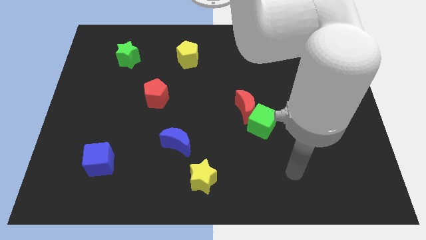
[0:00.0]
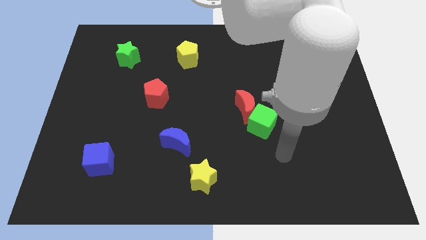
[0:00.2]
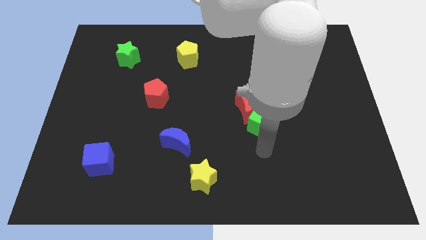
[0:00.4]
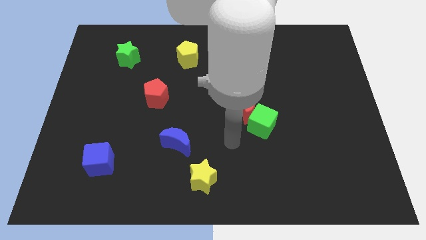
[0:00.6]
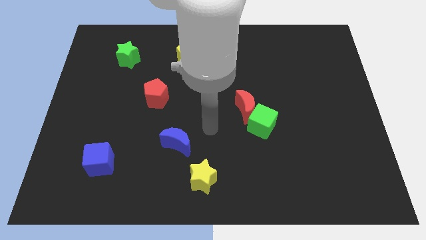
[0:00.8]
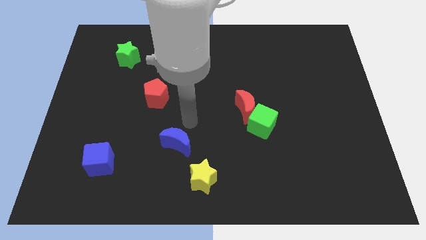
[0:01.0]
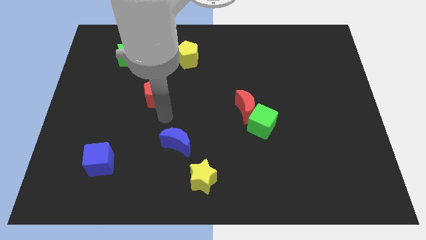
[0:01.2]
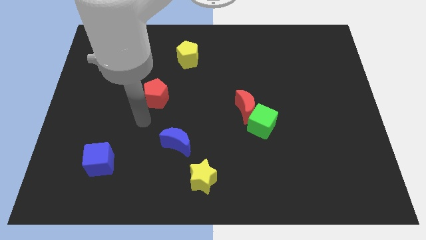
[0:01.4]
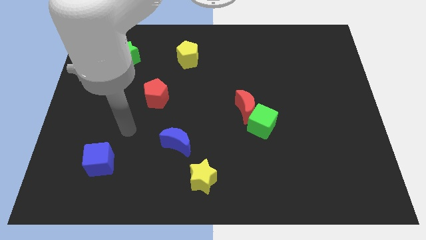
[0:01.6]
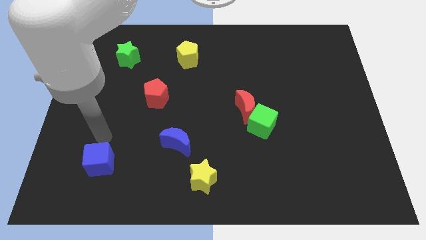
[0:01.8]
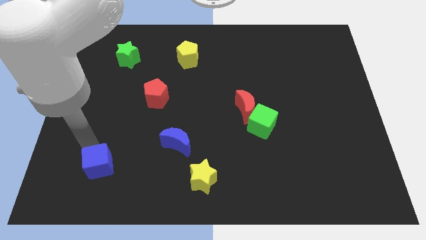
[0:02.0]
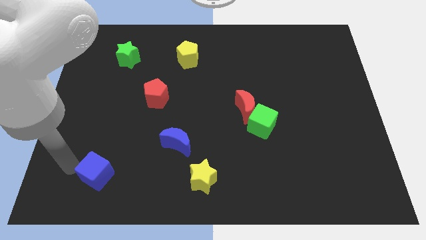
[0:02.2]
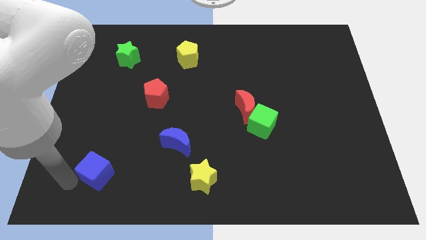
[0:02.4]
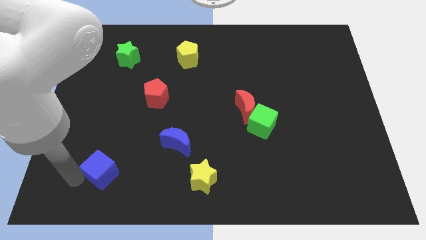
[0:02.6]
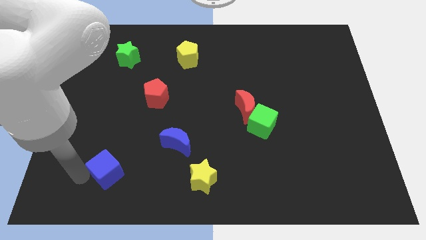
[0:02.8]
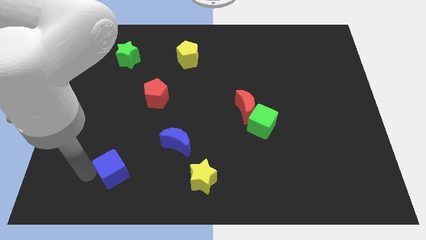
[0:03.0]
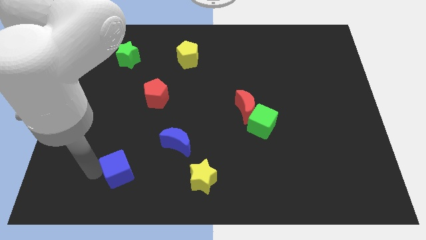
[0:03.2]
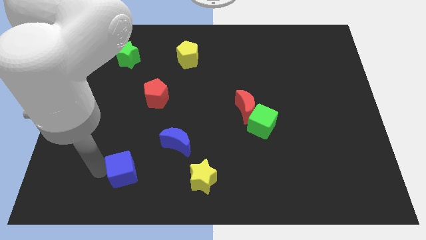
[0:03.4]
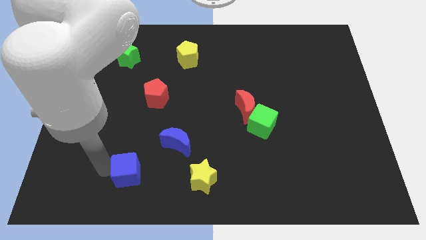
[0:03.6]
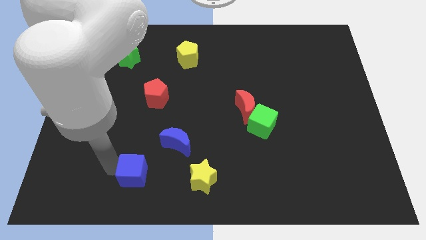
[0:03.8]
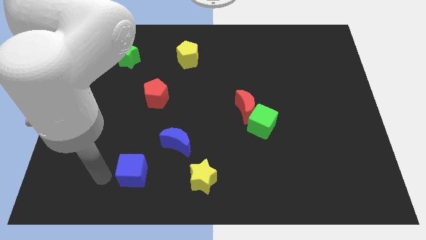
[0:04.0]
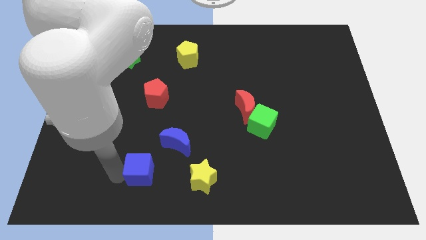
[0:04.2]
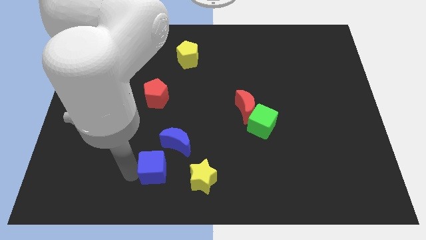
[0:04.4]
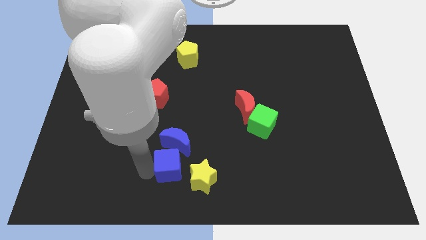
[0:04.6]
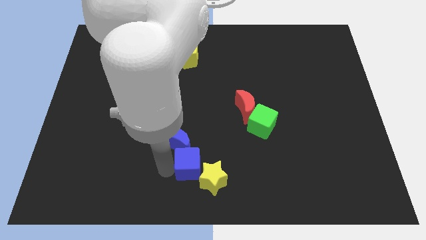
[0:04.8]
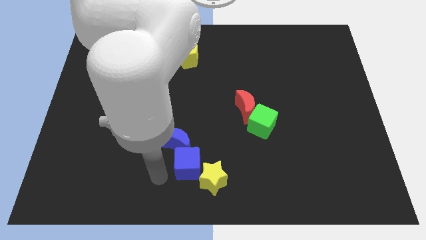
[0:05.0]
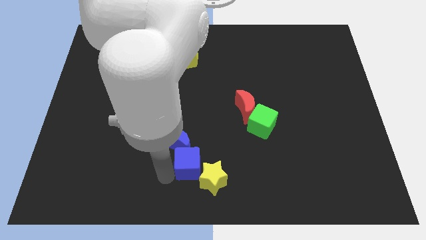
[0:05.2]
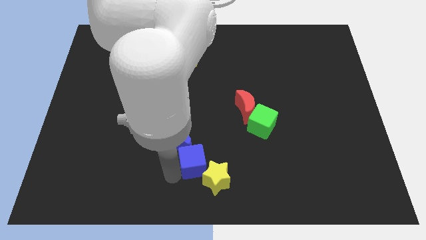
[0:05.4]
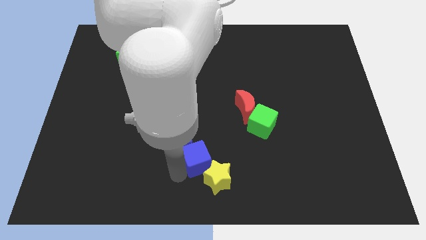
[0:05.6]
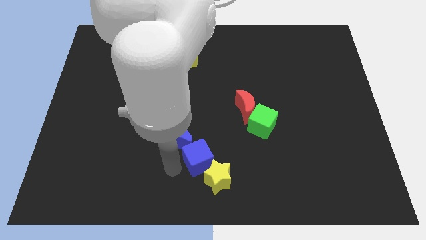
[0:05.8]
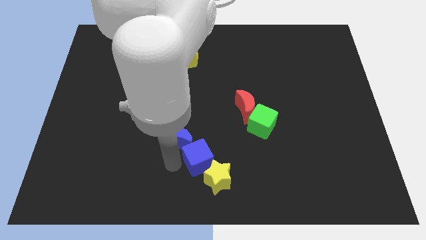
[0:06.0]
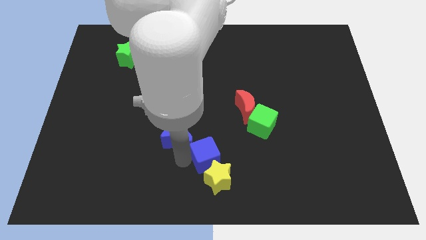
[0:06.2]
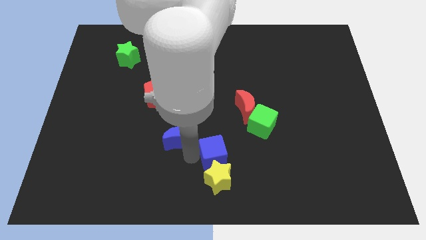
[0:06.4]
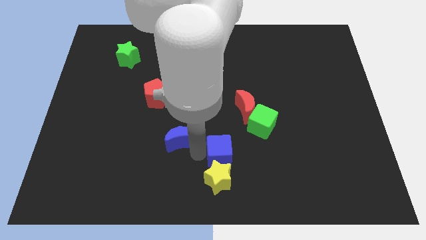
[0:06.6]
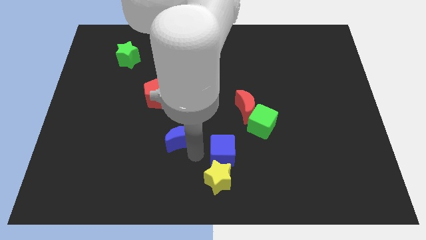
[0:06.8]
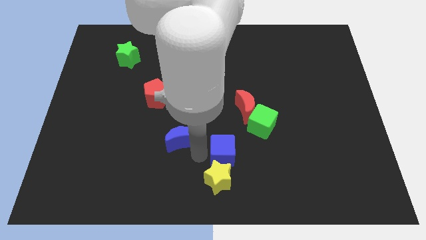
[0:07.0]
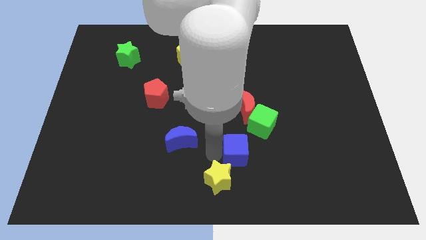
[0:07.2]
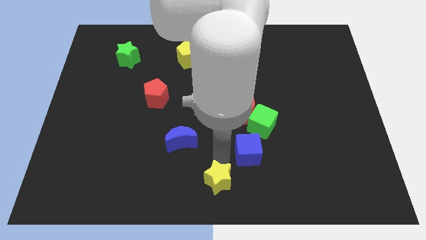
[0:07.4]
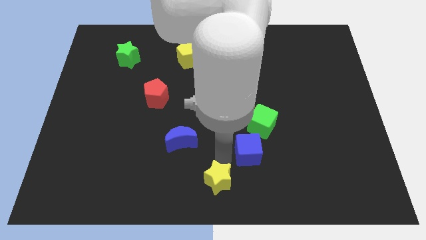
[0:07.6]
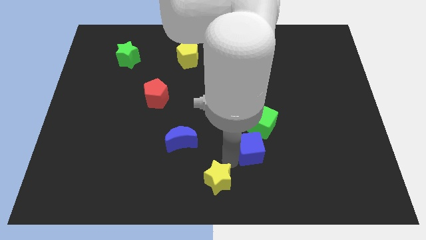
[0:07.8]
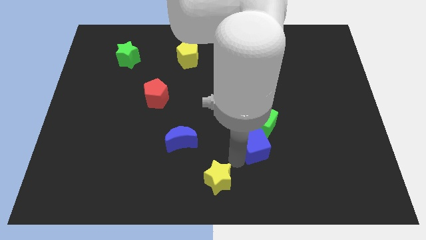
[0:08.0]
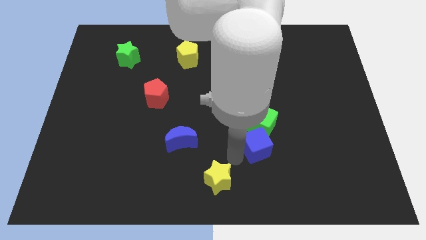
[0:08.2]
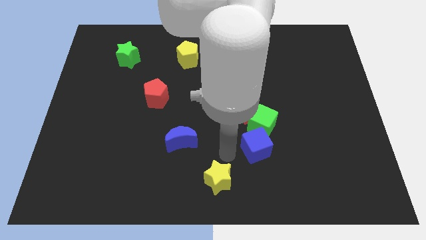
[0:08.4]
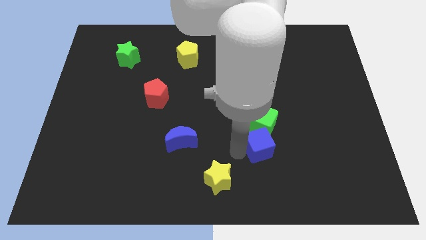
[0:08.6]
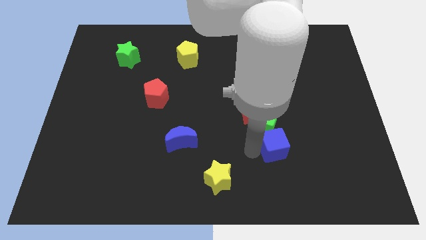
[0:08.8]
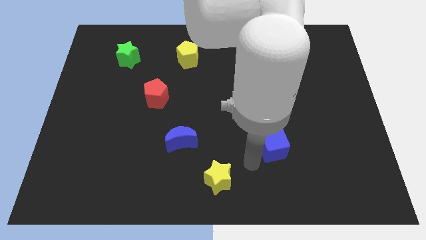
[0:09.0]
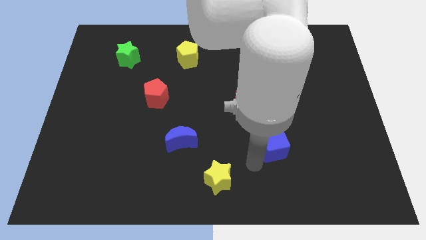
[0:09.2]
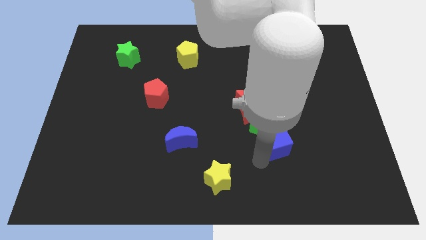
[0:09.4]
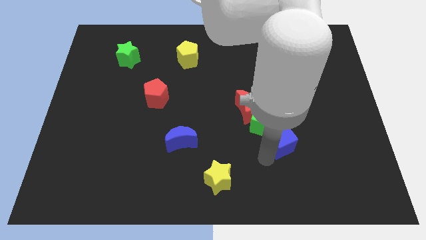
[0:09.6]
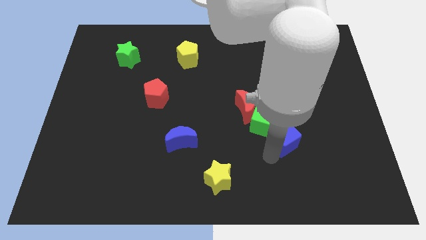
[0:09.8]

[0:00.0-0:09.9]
move the blue cube right of the green cube

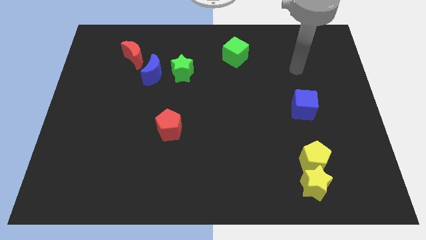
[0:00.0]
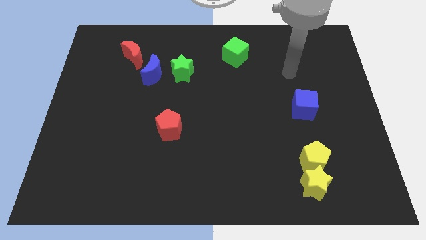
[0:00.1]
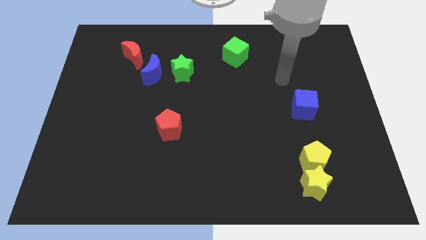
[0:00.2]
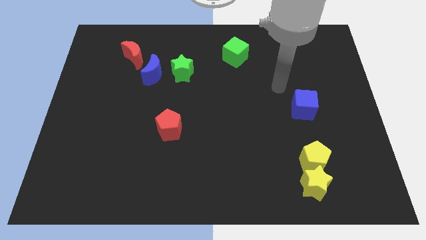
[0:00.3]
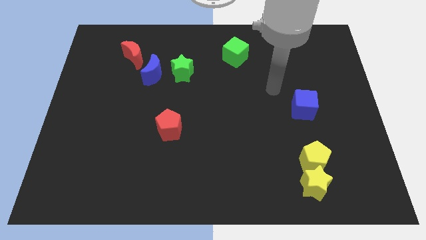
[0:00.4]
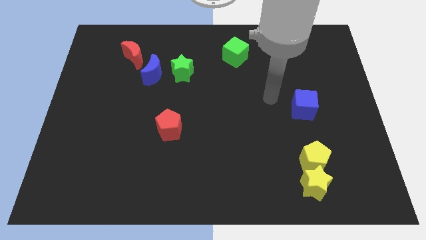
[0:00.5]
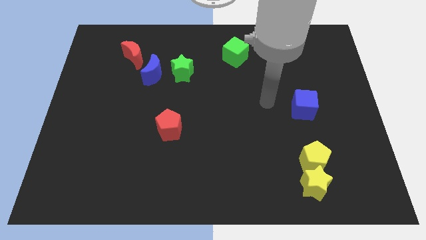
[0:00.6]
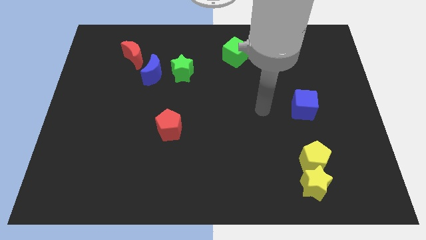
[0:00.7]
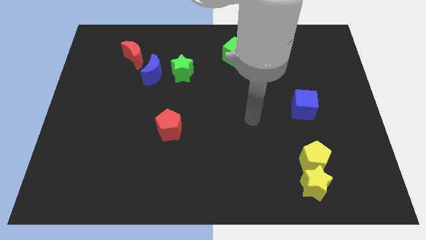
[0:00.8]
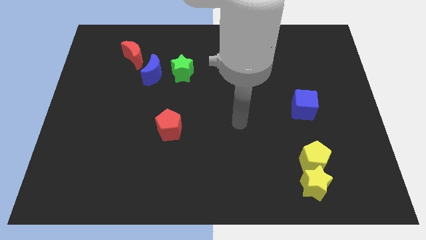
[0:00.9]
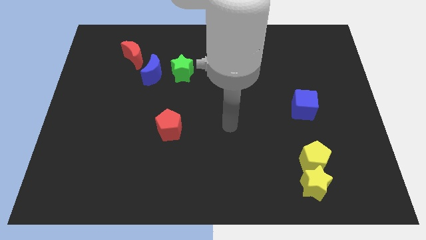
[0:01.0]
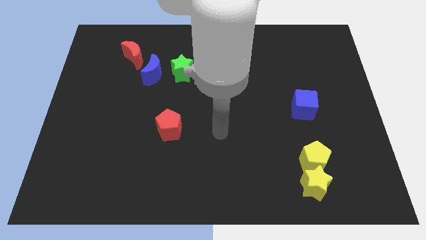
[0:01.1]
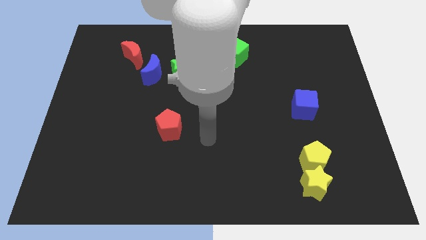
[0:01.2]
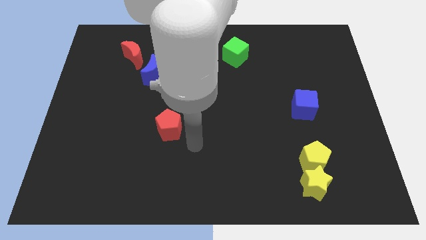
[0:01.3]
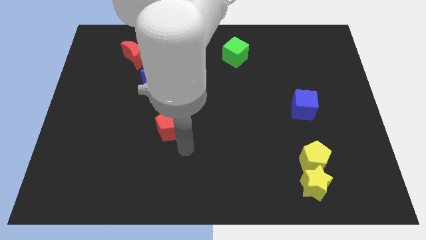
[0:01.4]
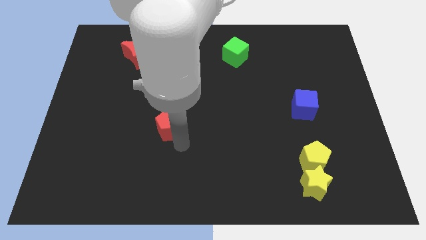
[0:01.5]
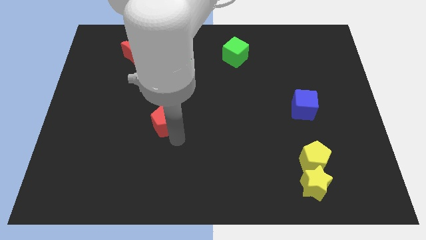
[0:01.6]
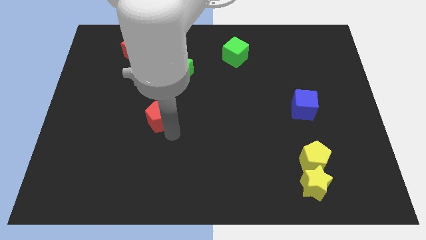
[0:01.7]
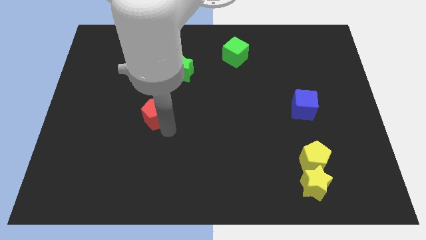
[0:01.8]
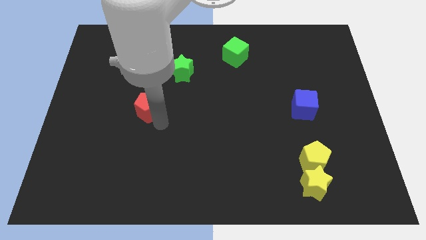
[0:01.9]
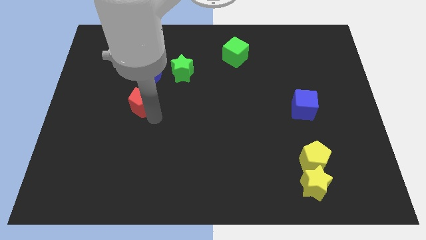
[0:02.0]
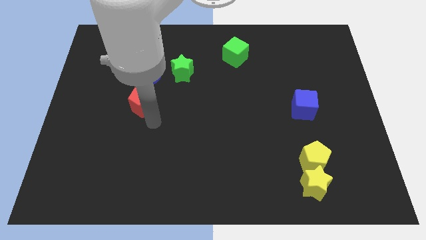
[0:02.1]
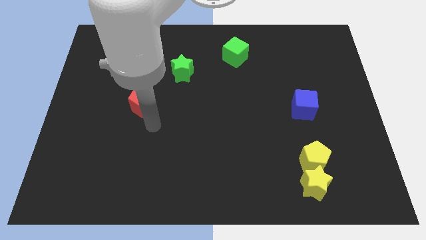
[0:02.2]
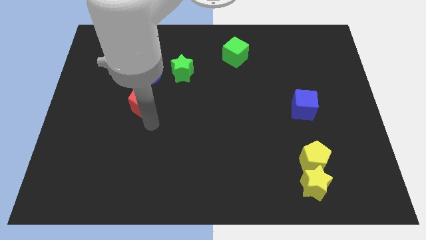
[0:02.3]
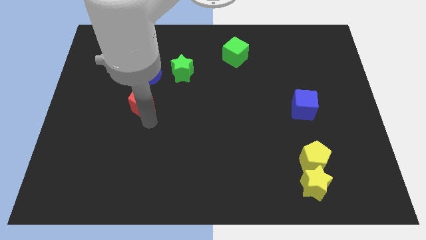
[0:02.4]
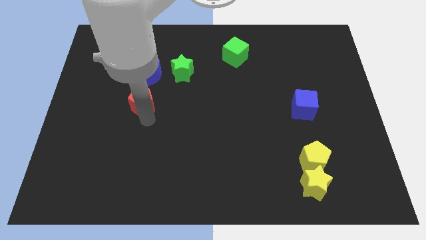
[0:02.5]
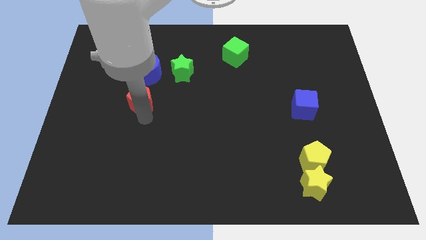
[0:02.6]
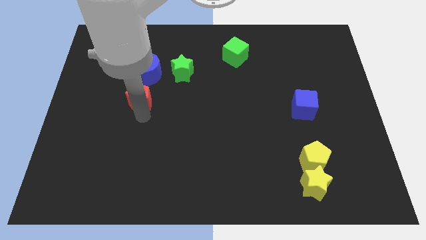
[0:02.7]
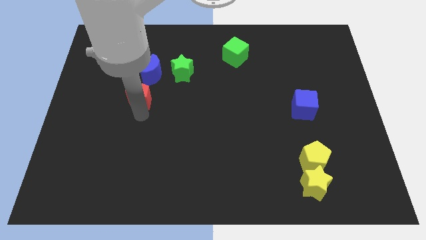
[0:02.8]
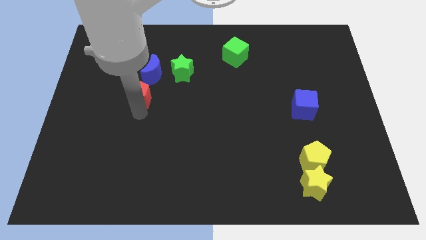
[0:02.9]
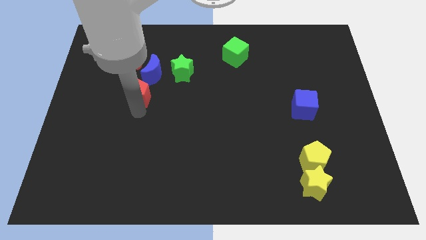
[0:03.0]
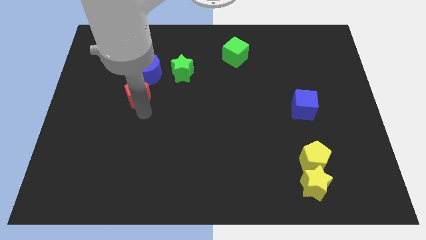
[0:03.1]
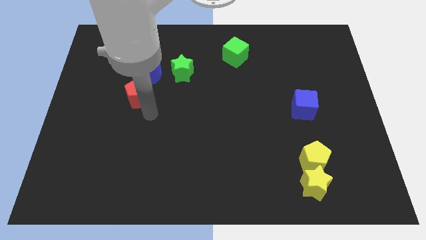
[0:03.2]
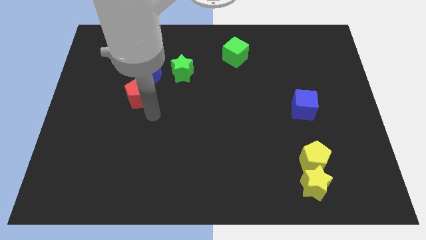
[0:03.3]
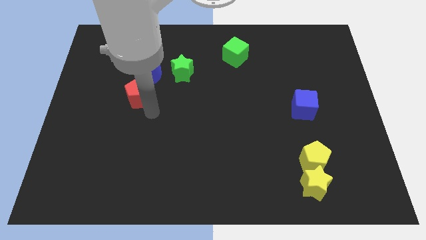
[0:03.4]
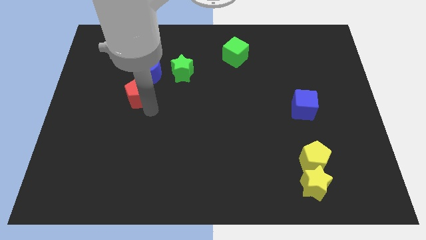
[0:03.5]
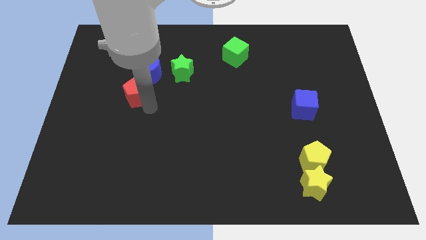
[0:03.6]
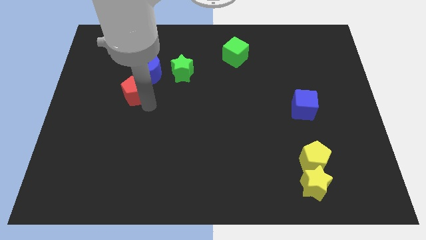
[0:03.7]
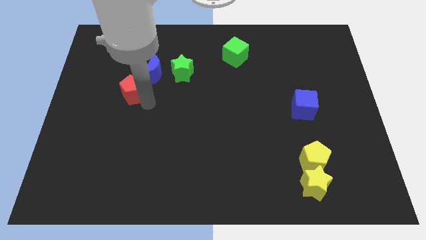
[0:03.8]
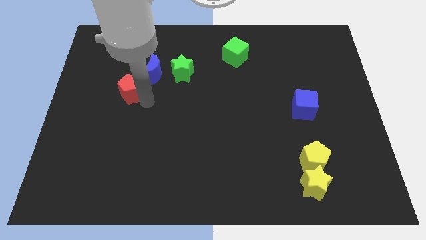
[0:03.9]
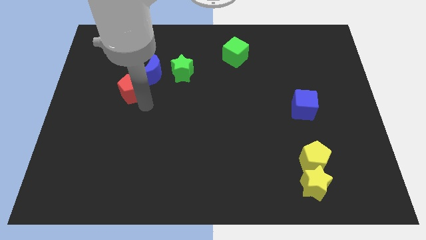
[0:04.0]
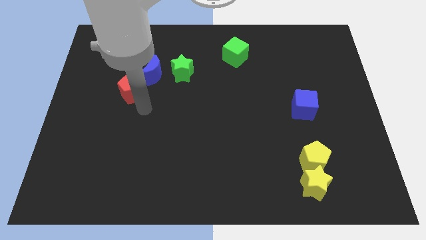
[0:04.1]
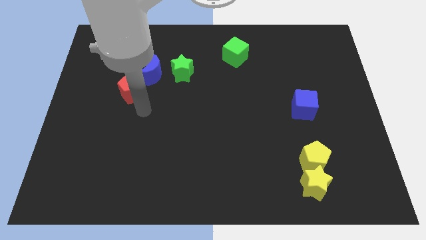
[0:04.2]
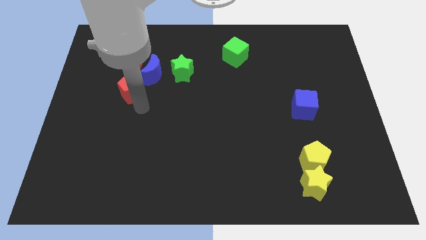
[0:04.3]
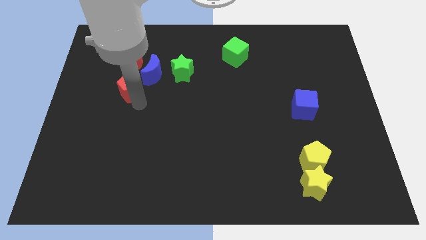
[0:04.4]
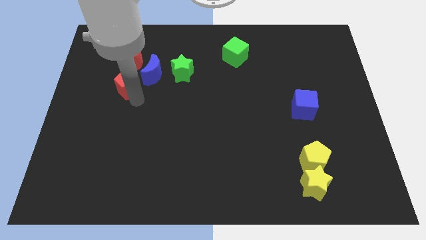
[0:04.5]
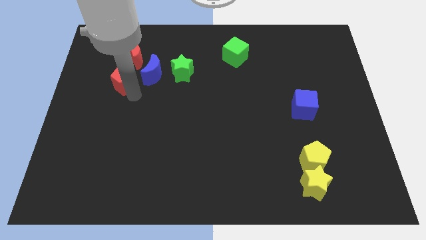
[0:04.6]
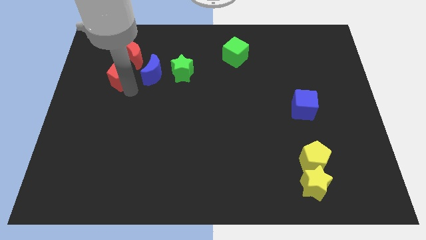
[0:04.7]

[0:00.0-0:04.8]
slide the red pentagon to the bottom left side of the red moon
